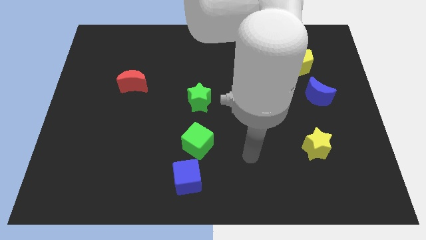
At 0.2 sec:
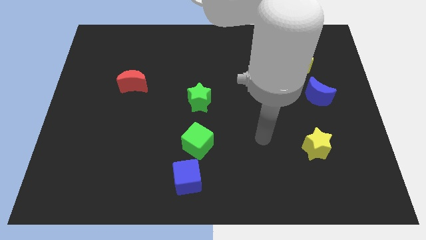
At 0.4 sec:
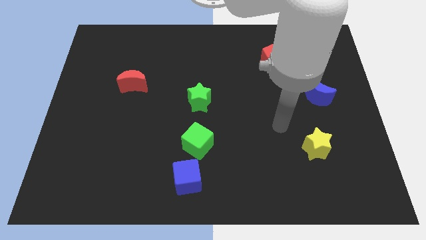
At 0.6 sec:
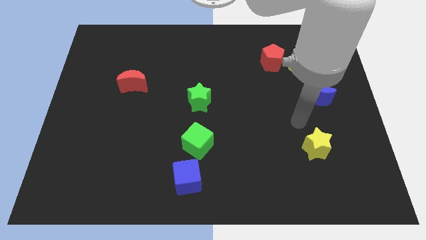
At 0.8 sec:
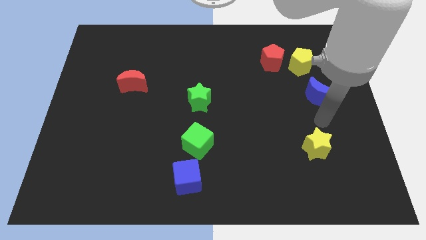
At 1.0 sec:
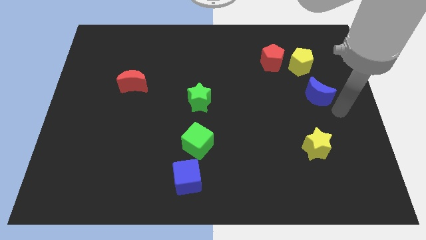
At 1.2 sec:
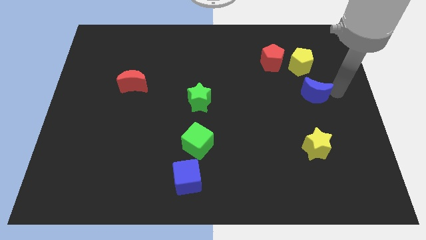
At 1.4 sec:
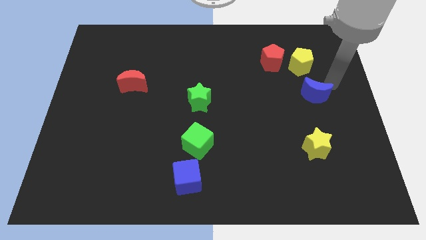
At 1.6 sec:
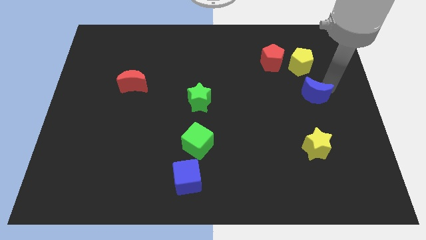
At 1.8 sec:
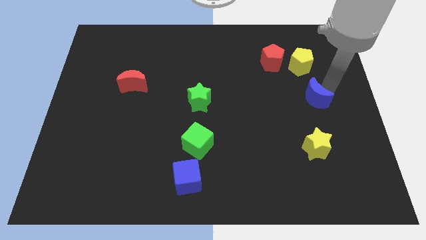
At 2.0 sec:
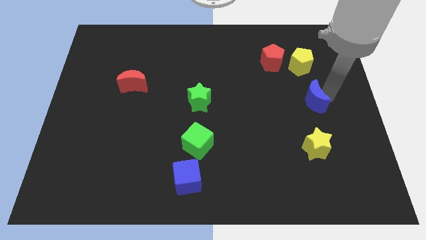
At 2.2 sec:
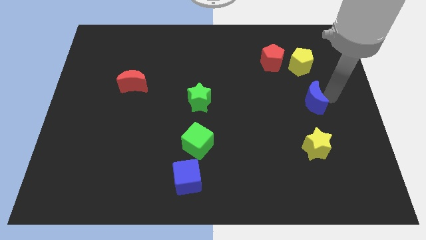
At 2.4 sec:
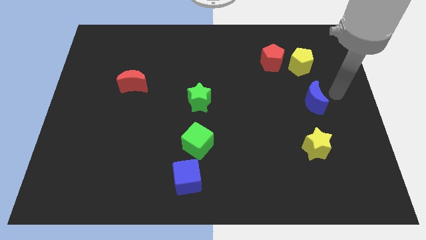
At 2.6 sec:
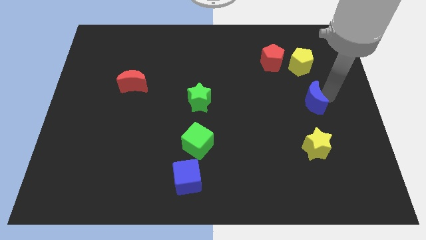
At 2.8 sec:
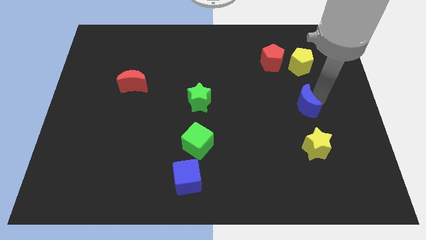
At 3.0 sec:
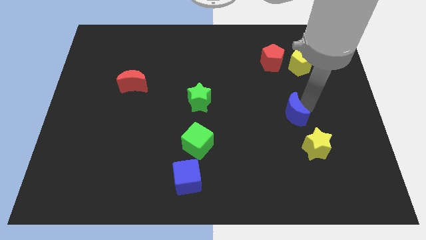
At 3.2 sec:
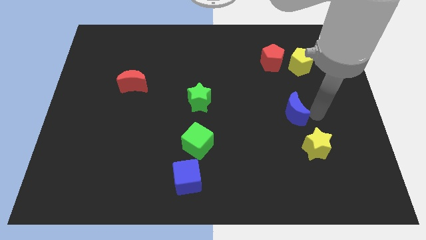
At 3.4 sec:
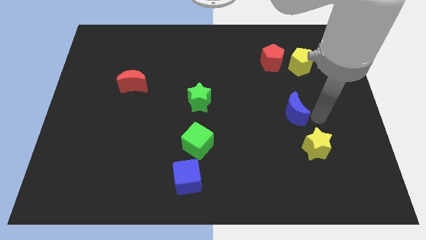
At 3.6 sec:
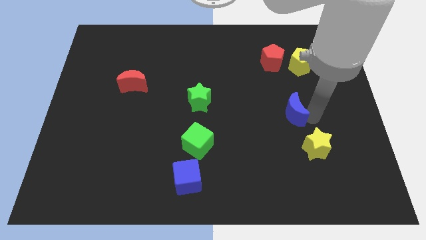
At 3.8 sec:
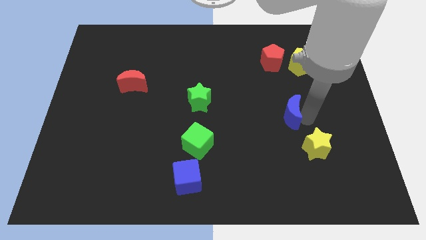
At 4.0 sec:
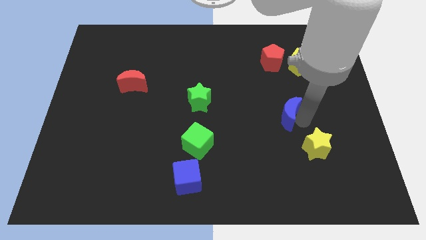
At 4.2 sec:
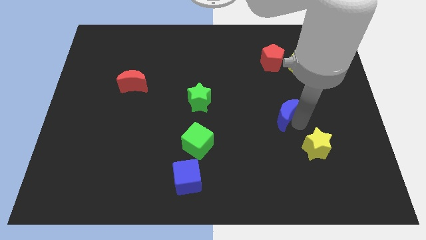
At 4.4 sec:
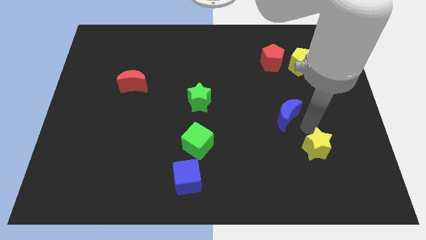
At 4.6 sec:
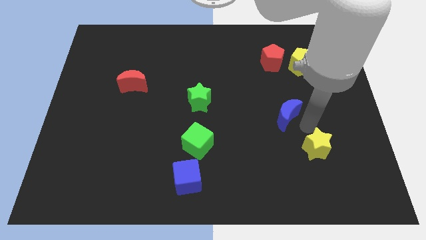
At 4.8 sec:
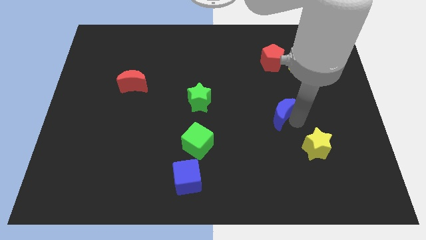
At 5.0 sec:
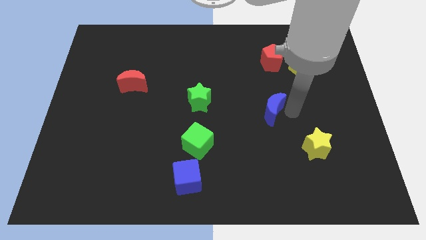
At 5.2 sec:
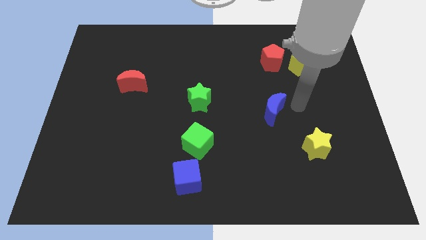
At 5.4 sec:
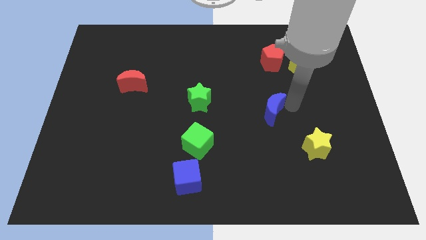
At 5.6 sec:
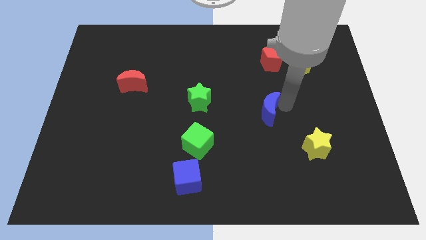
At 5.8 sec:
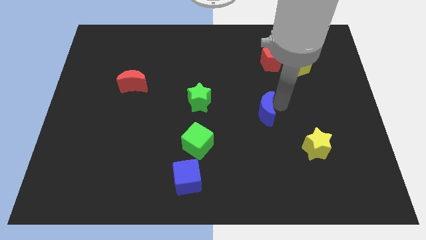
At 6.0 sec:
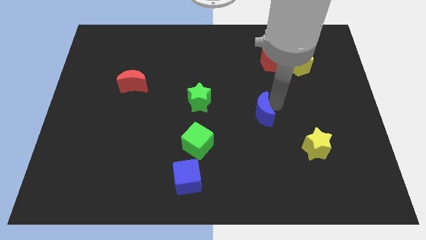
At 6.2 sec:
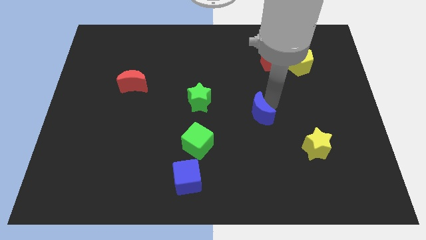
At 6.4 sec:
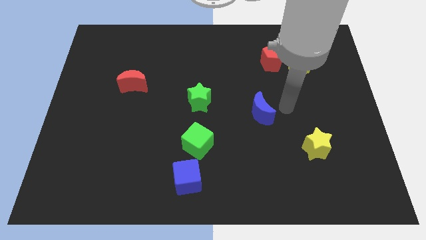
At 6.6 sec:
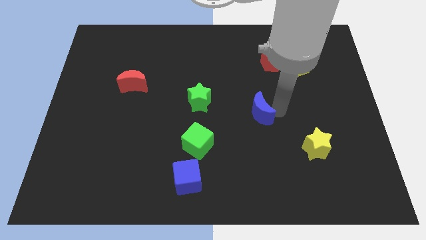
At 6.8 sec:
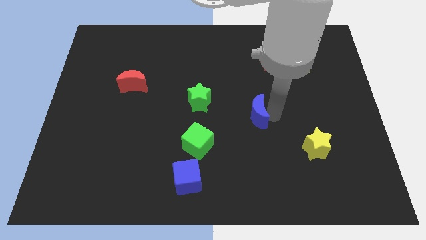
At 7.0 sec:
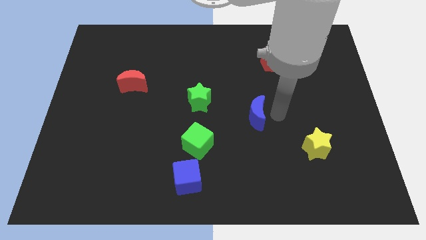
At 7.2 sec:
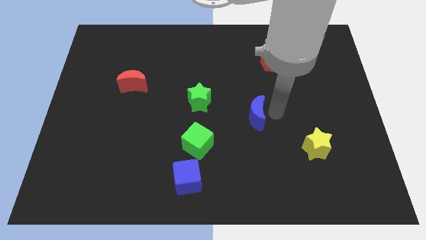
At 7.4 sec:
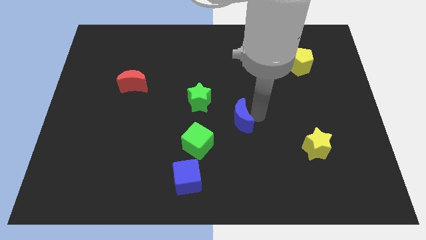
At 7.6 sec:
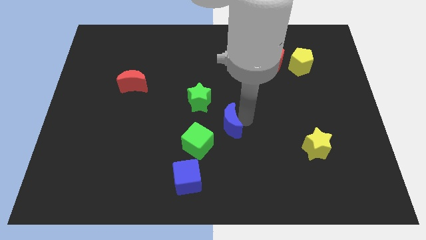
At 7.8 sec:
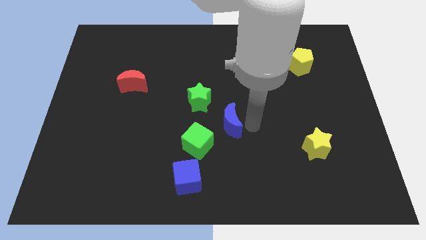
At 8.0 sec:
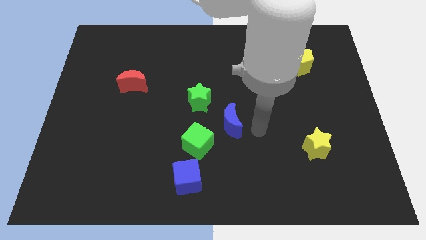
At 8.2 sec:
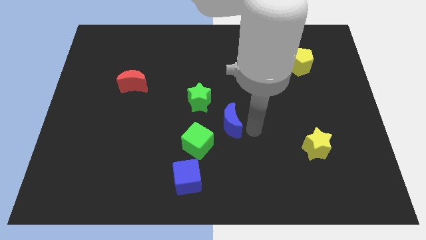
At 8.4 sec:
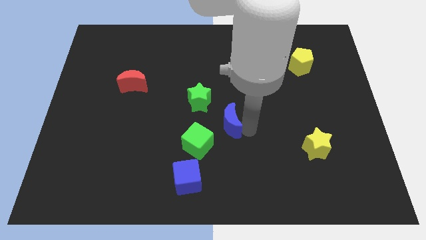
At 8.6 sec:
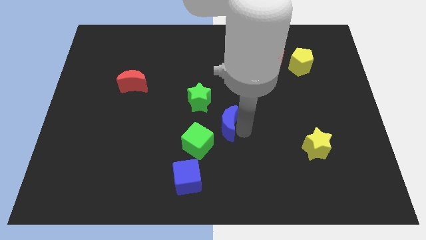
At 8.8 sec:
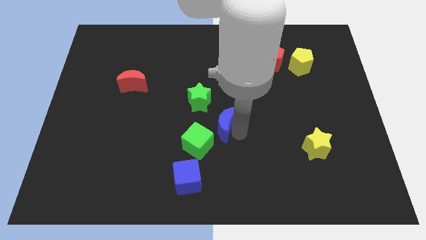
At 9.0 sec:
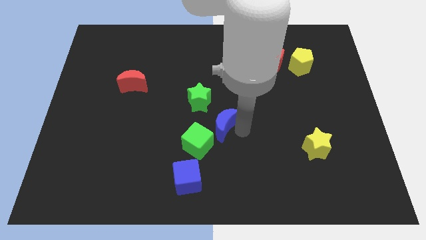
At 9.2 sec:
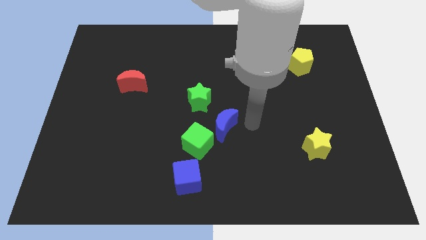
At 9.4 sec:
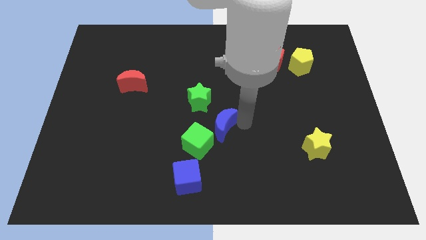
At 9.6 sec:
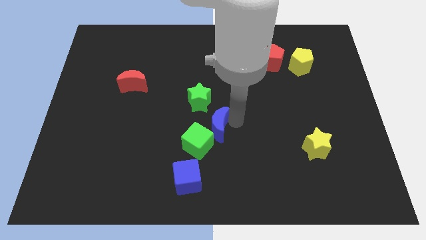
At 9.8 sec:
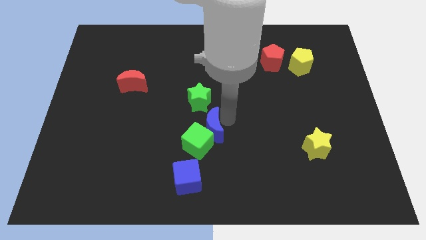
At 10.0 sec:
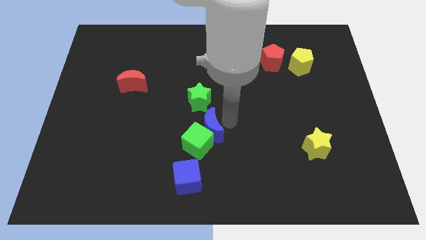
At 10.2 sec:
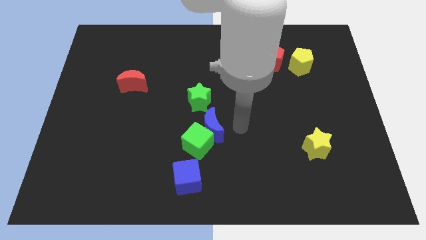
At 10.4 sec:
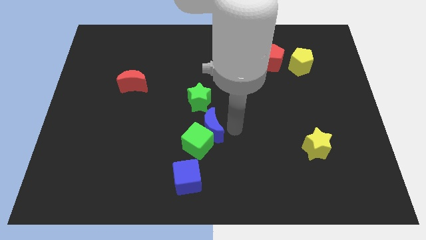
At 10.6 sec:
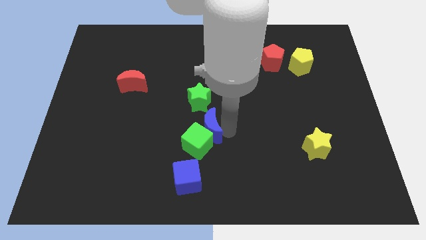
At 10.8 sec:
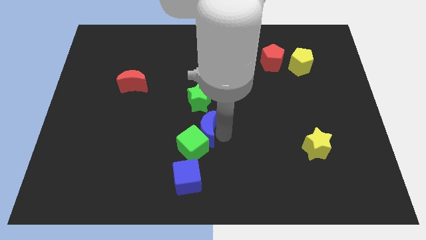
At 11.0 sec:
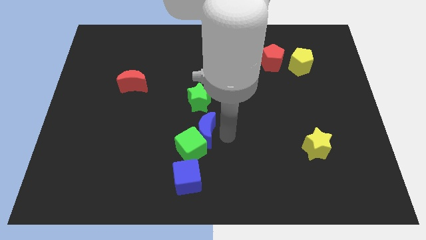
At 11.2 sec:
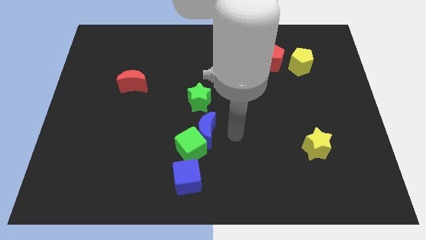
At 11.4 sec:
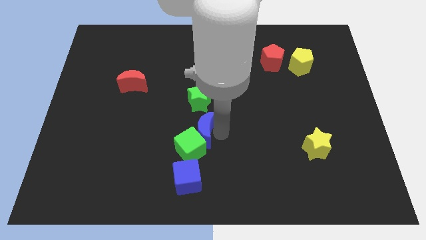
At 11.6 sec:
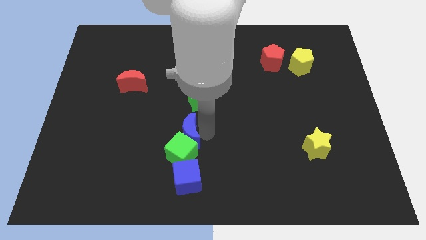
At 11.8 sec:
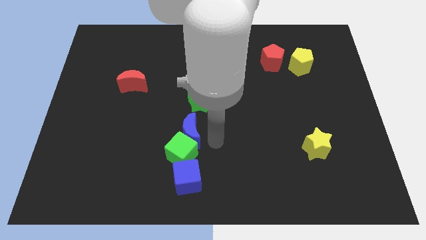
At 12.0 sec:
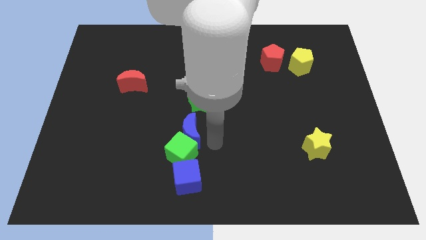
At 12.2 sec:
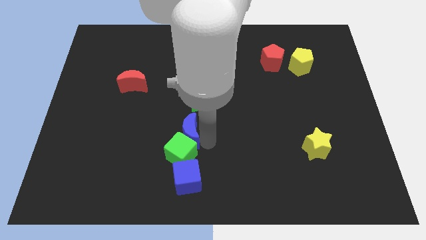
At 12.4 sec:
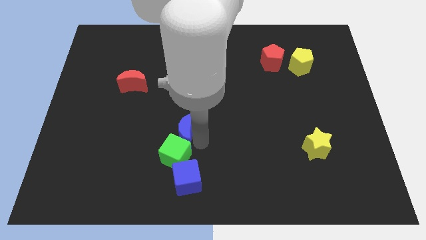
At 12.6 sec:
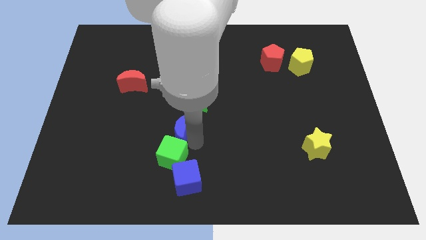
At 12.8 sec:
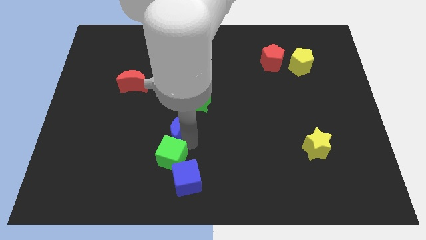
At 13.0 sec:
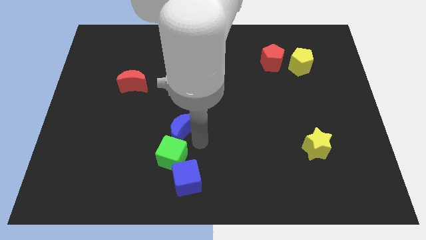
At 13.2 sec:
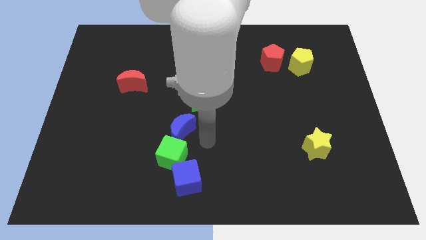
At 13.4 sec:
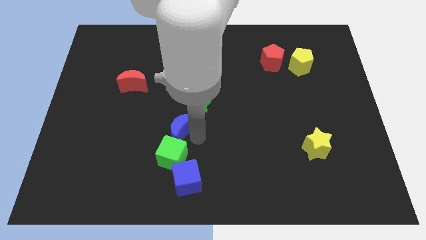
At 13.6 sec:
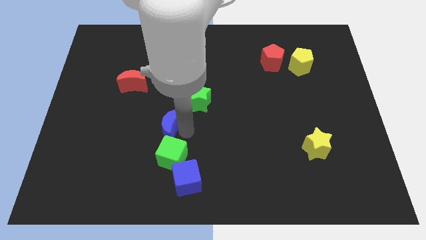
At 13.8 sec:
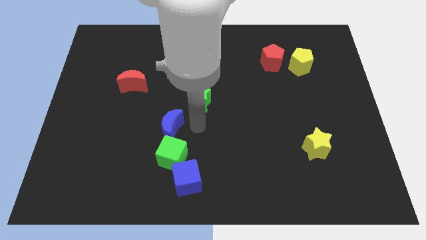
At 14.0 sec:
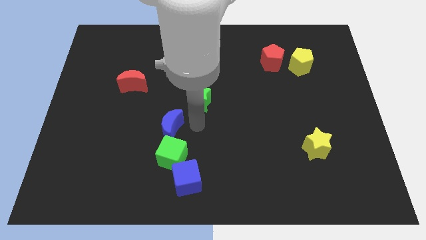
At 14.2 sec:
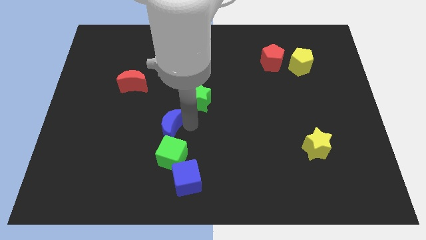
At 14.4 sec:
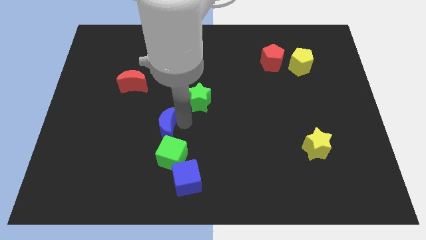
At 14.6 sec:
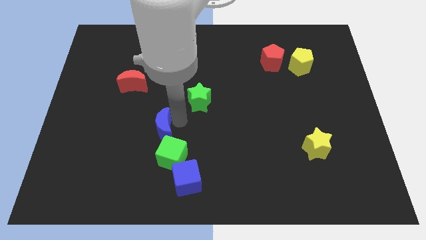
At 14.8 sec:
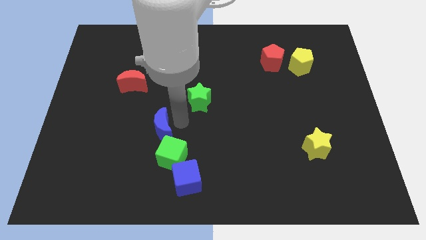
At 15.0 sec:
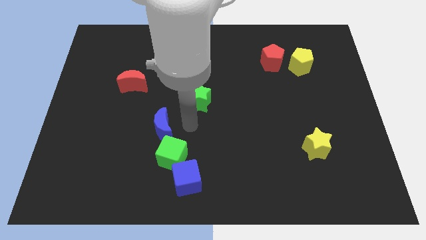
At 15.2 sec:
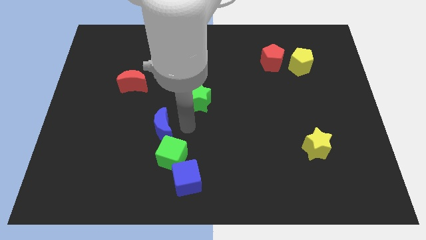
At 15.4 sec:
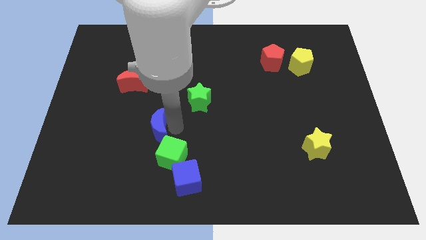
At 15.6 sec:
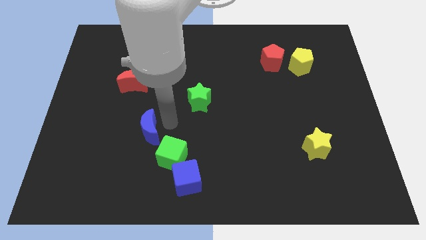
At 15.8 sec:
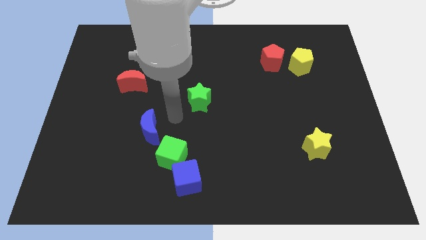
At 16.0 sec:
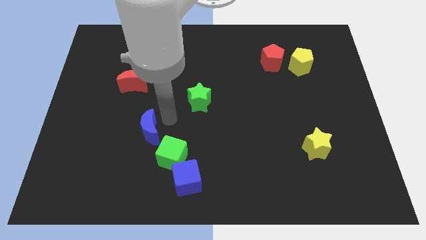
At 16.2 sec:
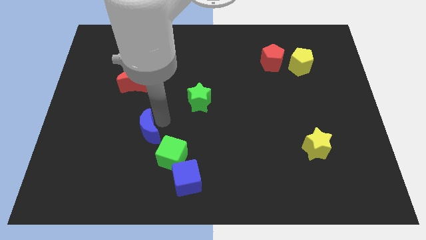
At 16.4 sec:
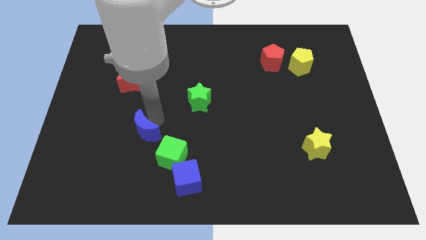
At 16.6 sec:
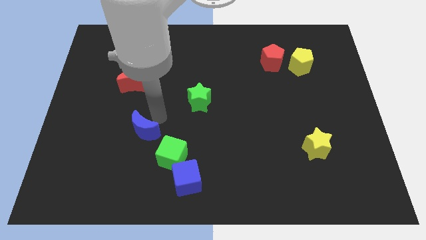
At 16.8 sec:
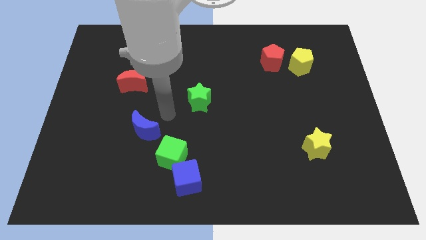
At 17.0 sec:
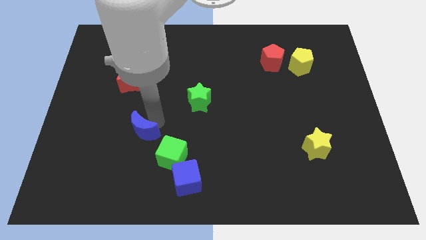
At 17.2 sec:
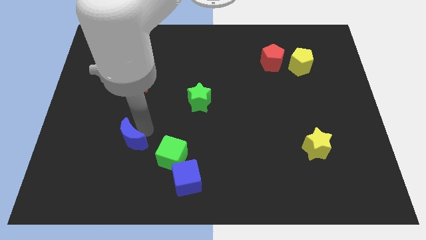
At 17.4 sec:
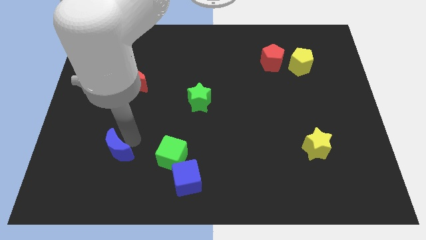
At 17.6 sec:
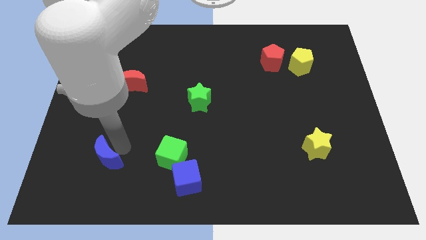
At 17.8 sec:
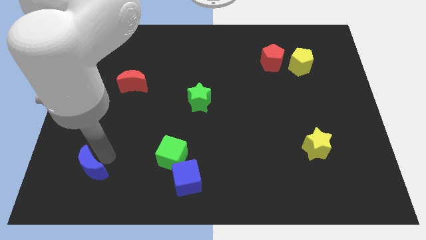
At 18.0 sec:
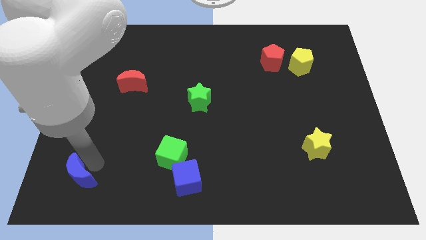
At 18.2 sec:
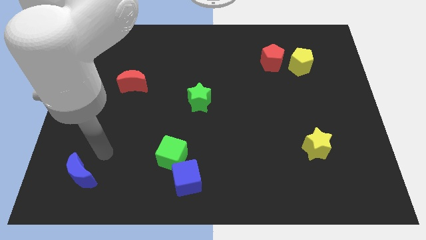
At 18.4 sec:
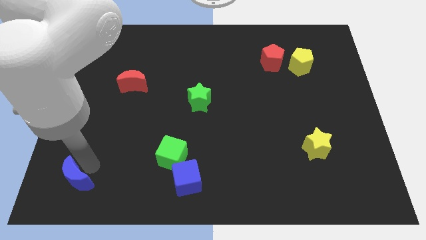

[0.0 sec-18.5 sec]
move the blue moon to the bottom left of the board
